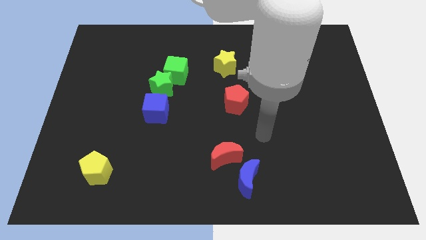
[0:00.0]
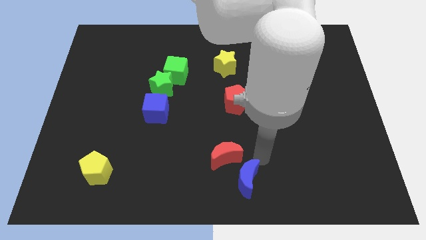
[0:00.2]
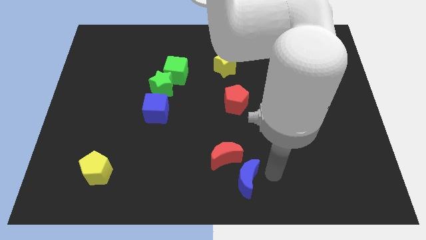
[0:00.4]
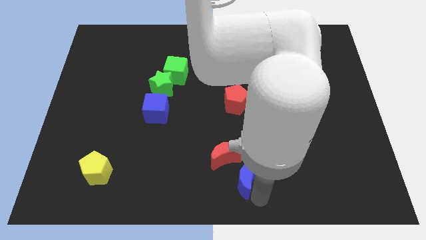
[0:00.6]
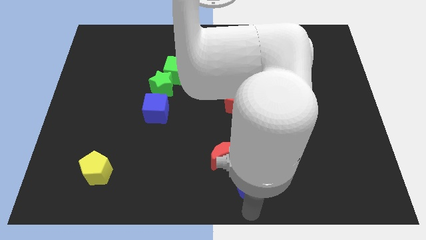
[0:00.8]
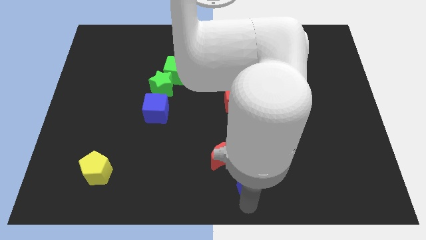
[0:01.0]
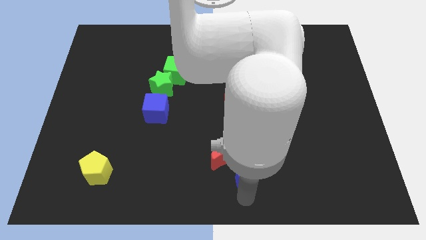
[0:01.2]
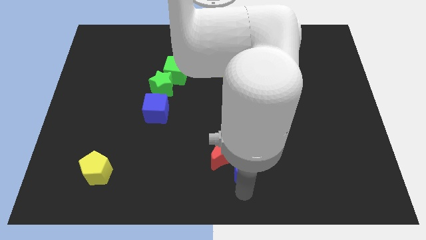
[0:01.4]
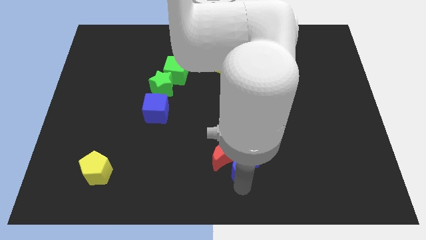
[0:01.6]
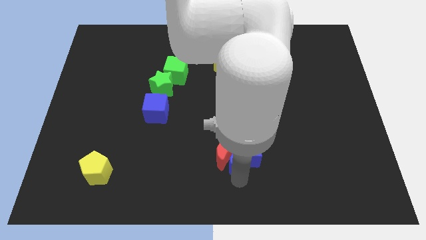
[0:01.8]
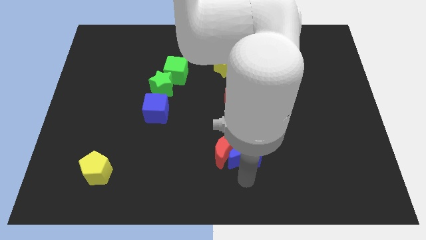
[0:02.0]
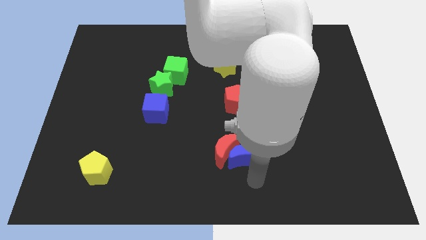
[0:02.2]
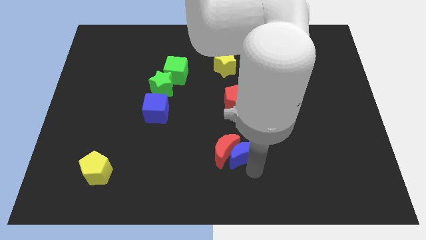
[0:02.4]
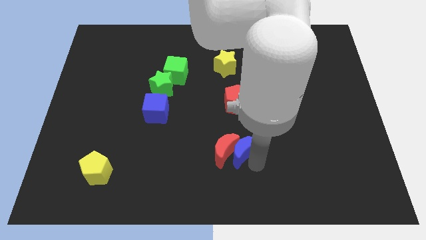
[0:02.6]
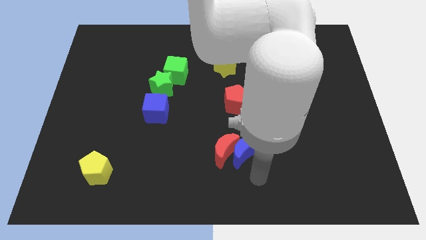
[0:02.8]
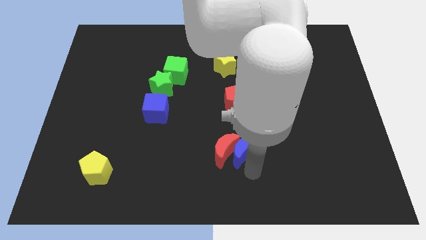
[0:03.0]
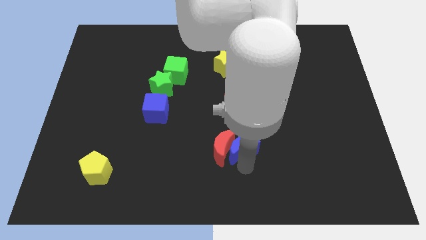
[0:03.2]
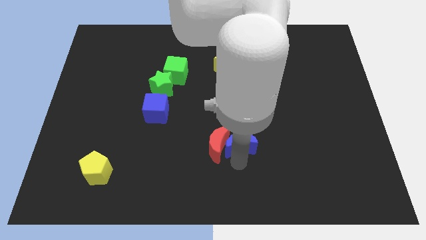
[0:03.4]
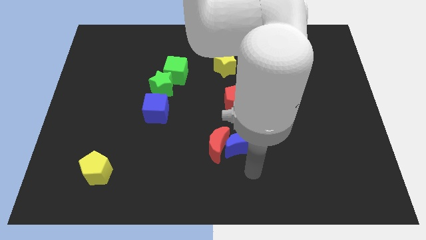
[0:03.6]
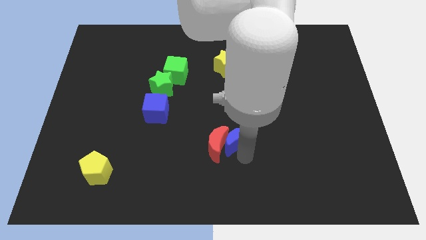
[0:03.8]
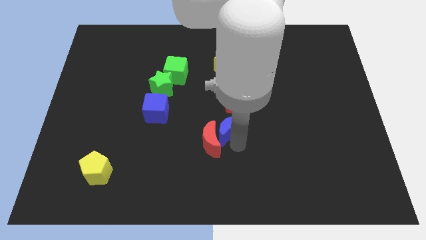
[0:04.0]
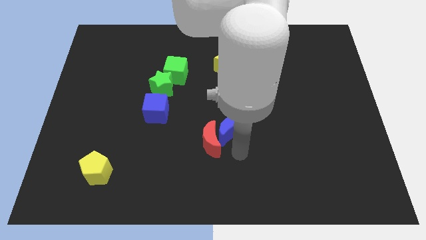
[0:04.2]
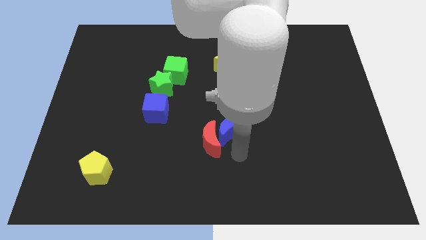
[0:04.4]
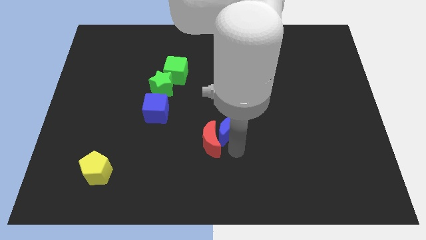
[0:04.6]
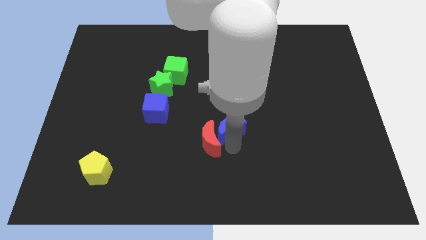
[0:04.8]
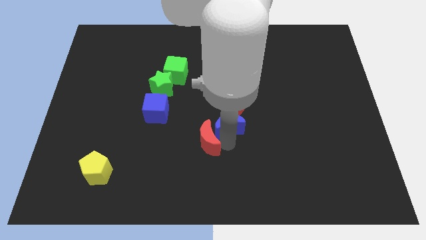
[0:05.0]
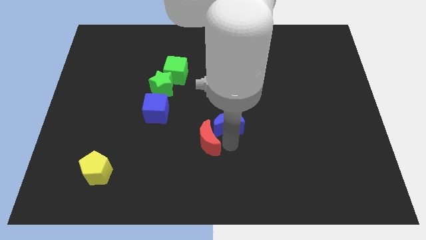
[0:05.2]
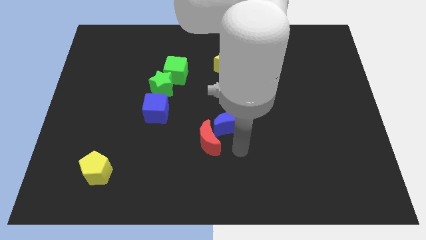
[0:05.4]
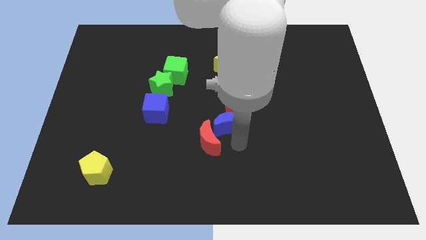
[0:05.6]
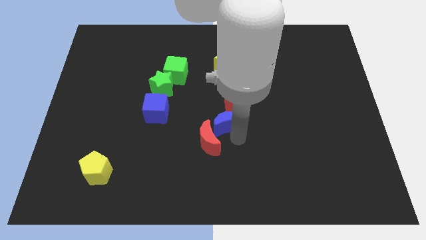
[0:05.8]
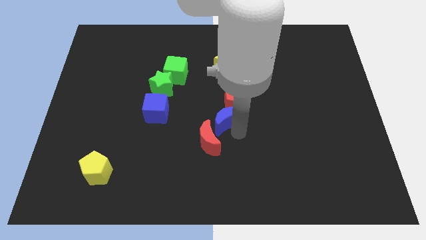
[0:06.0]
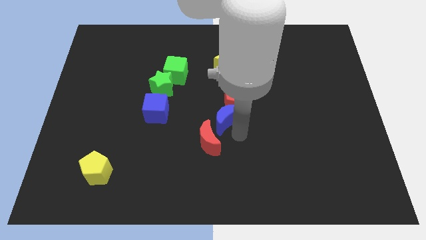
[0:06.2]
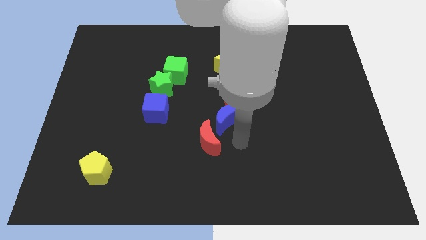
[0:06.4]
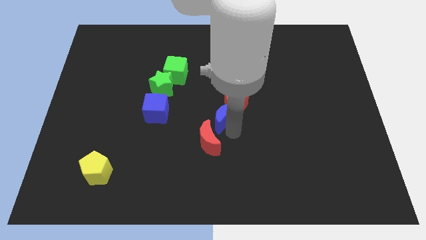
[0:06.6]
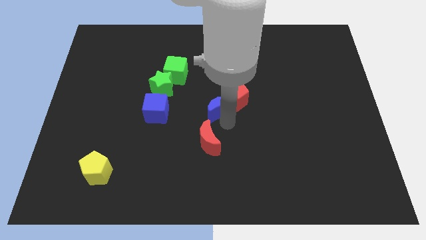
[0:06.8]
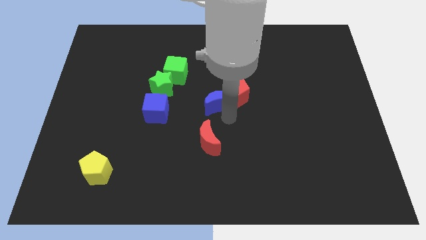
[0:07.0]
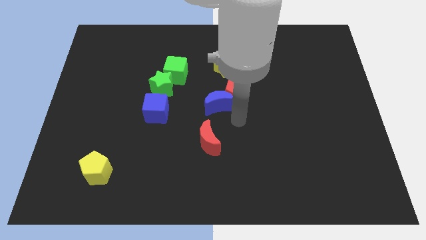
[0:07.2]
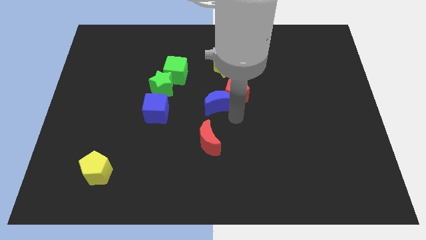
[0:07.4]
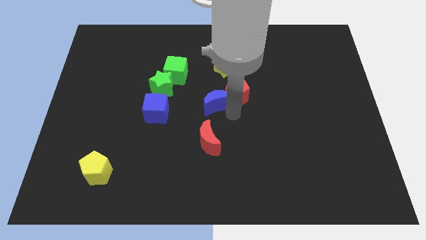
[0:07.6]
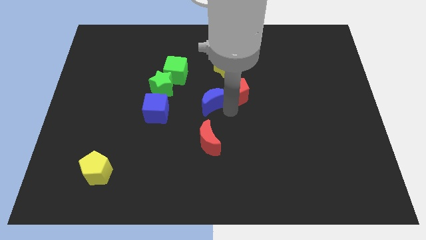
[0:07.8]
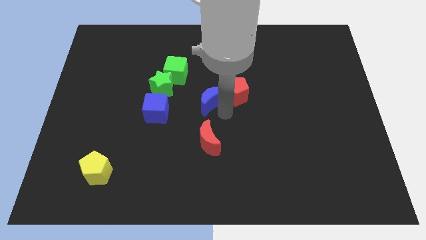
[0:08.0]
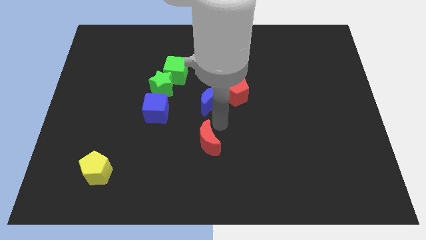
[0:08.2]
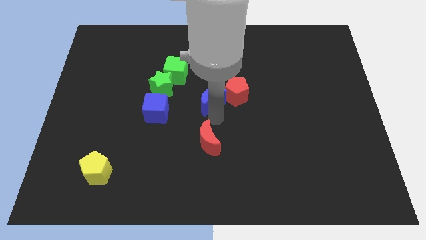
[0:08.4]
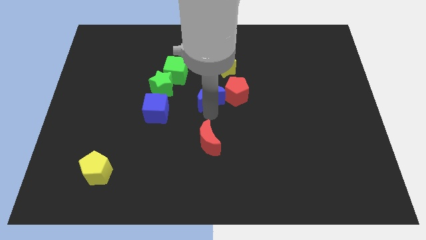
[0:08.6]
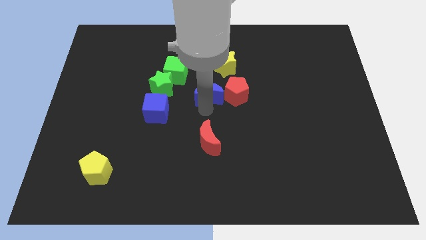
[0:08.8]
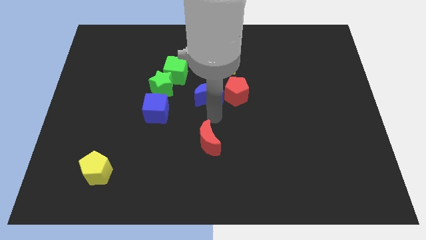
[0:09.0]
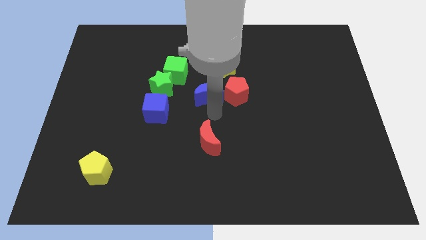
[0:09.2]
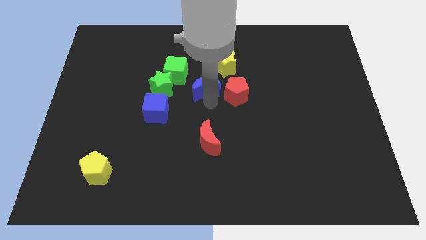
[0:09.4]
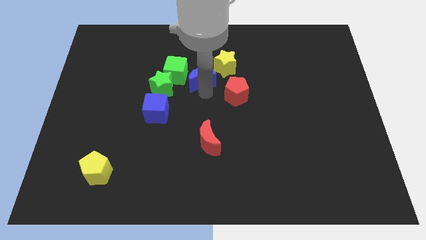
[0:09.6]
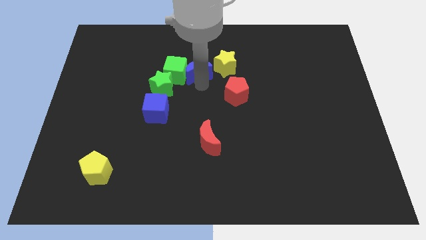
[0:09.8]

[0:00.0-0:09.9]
move the blue moon to the top right of the green cube

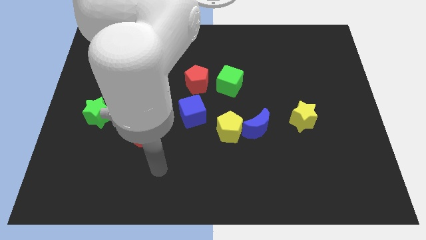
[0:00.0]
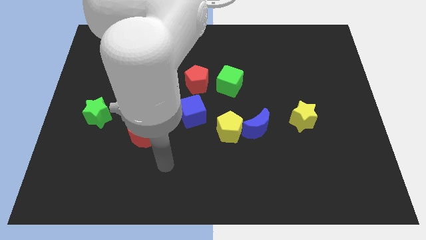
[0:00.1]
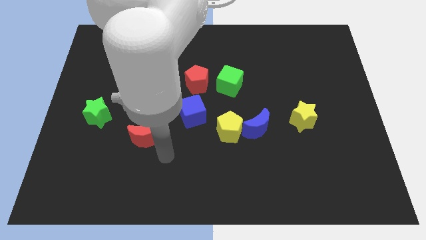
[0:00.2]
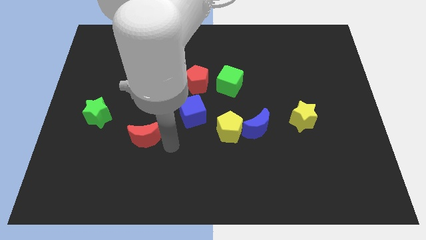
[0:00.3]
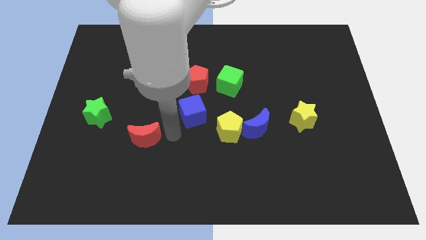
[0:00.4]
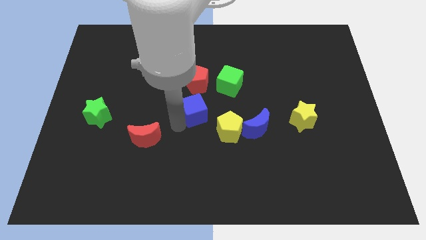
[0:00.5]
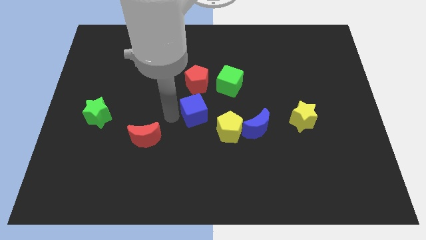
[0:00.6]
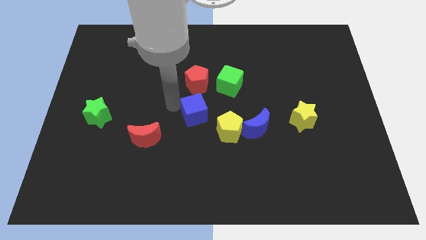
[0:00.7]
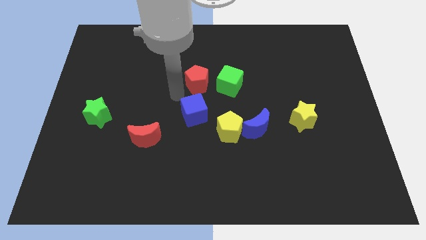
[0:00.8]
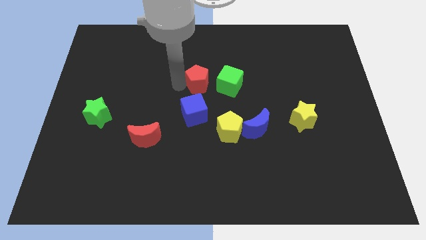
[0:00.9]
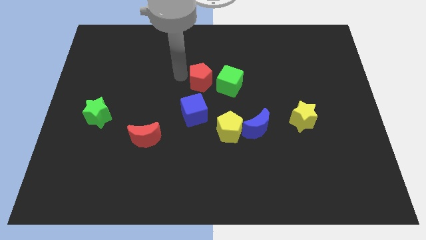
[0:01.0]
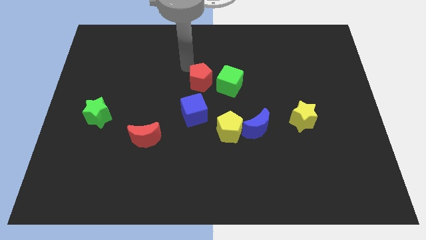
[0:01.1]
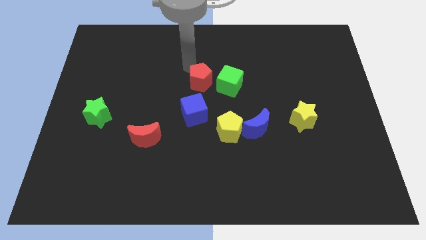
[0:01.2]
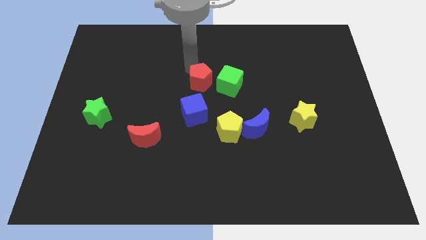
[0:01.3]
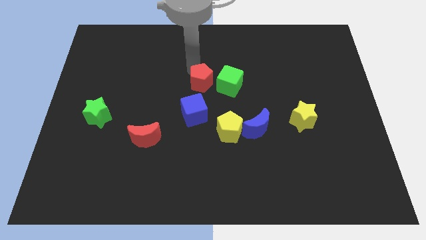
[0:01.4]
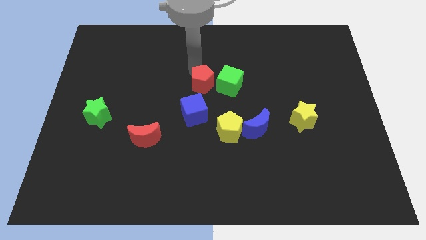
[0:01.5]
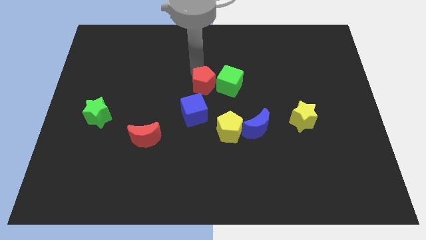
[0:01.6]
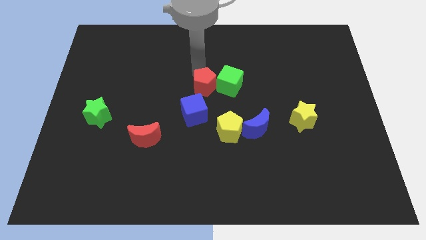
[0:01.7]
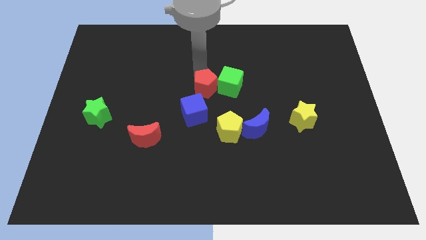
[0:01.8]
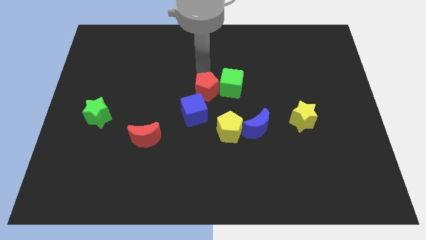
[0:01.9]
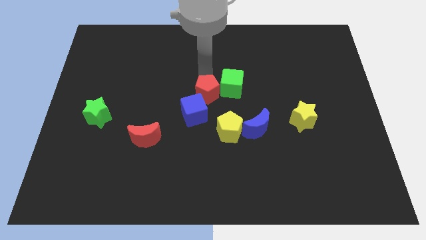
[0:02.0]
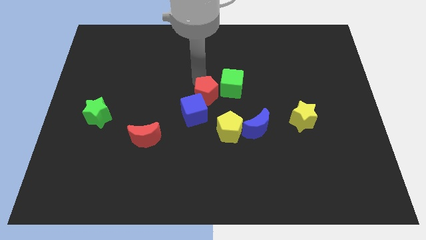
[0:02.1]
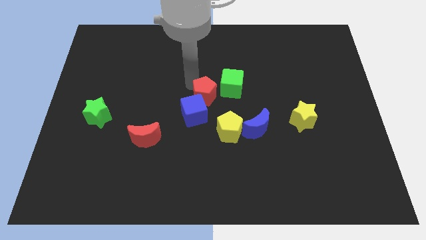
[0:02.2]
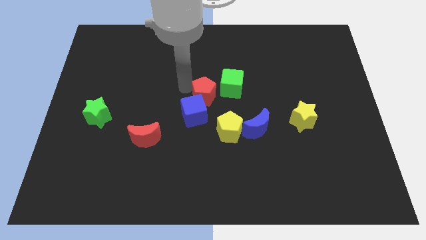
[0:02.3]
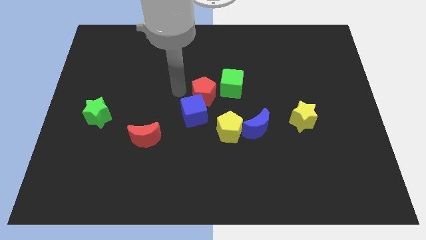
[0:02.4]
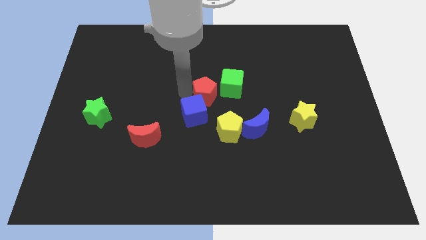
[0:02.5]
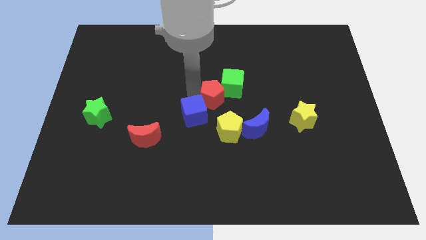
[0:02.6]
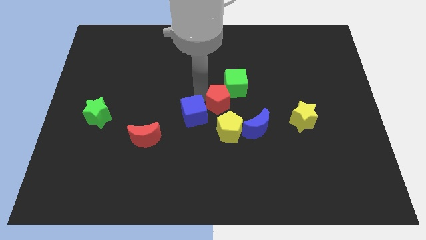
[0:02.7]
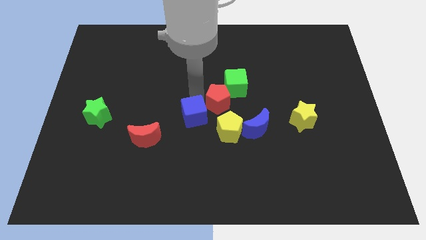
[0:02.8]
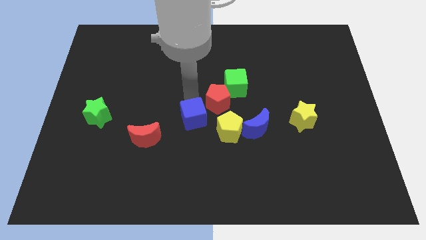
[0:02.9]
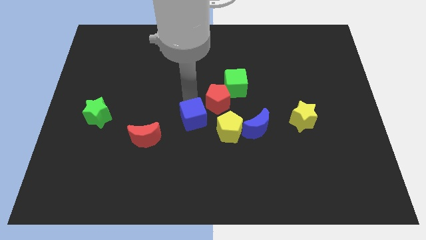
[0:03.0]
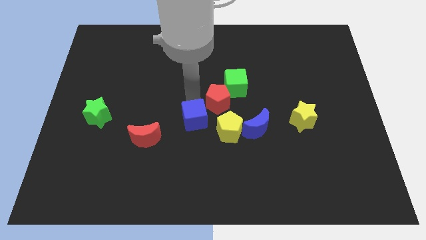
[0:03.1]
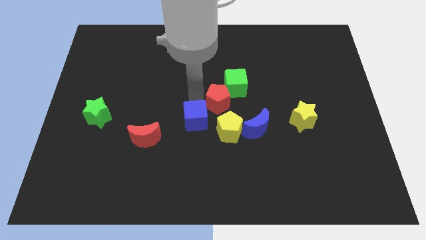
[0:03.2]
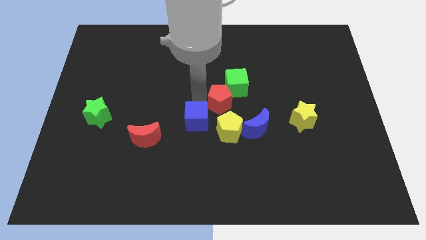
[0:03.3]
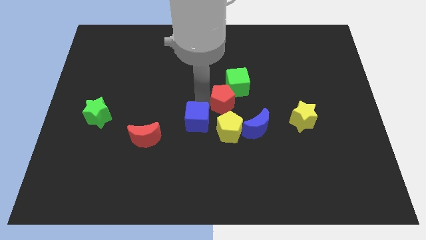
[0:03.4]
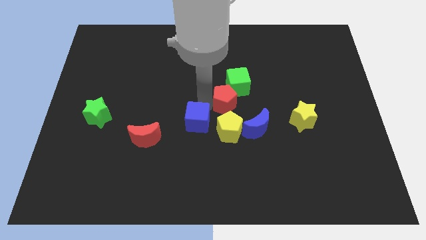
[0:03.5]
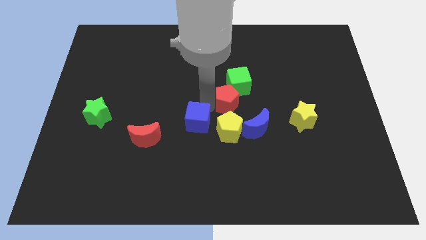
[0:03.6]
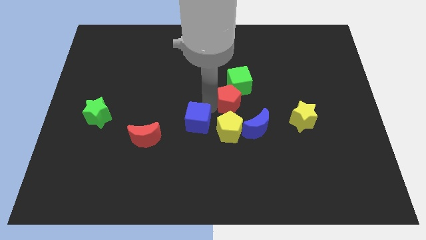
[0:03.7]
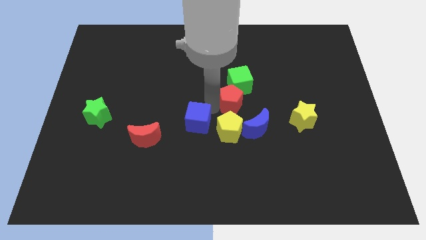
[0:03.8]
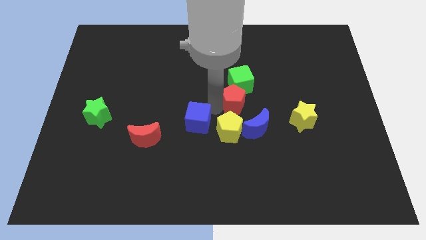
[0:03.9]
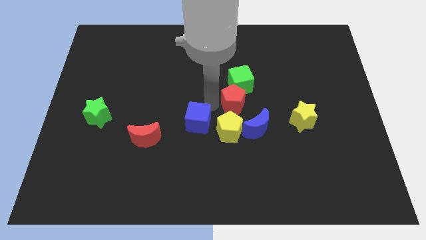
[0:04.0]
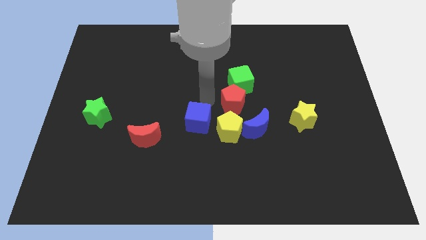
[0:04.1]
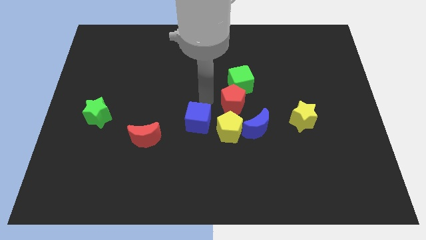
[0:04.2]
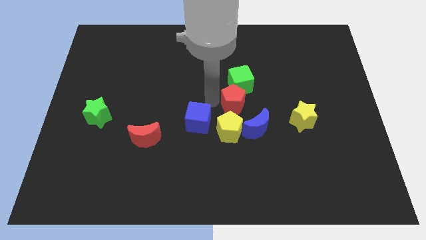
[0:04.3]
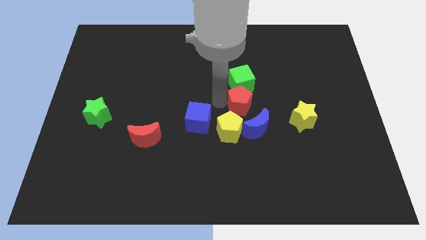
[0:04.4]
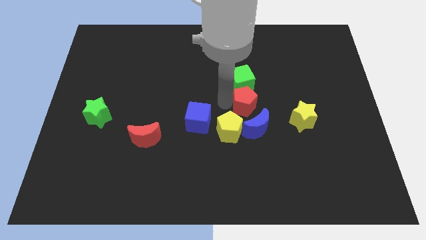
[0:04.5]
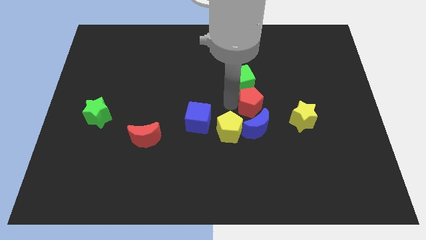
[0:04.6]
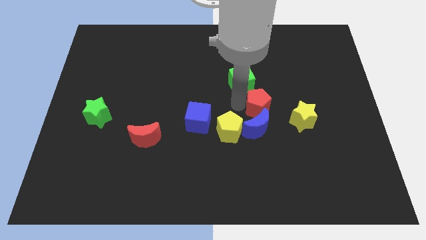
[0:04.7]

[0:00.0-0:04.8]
put the red pentagon diagonally up and to the right of the blue moon
